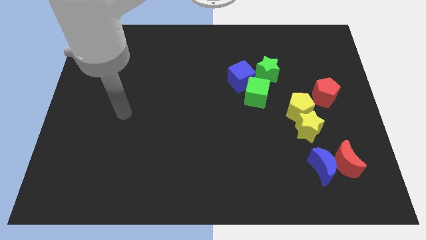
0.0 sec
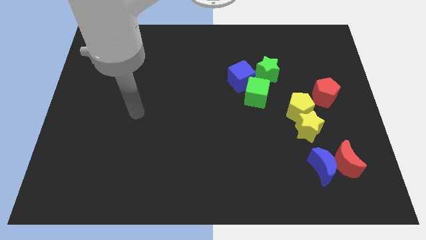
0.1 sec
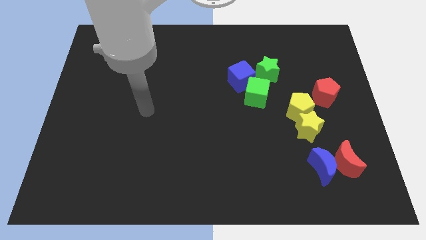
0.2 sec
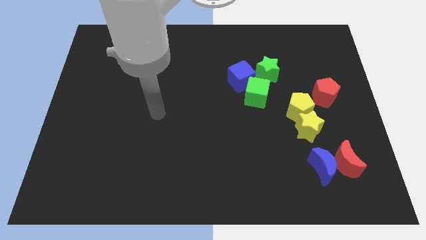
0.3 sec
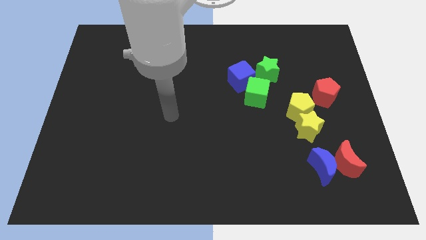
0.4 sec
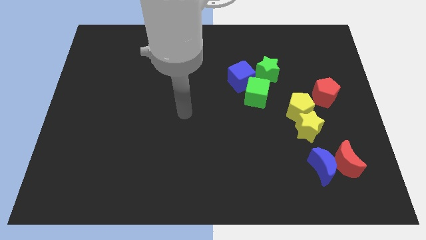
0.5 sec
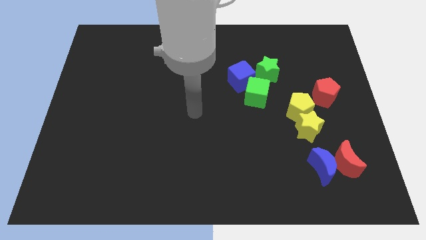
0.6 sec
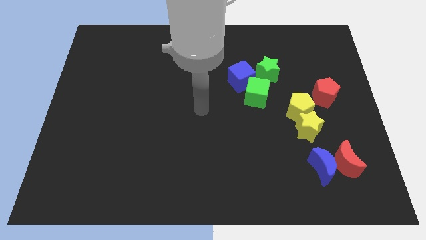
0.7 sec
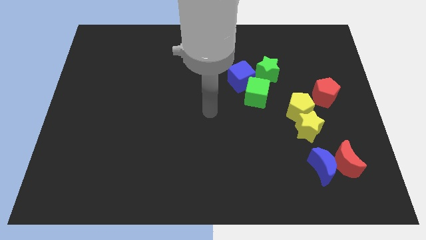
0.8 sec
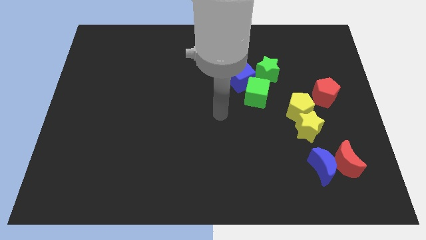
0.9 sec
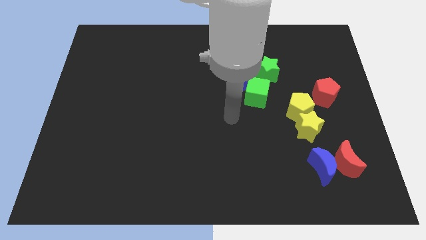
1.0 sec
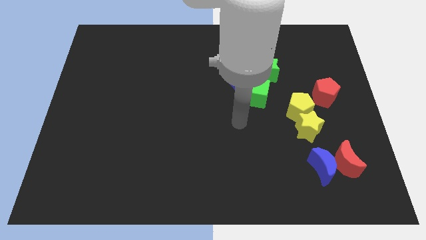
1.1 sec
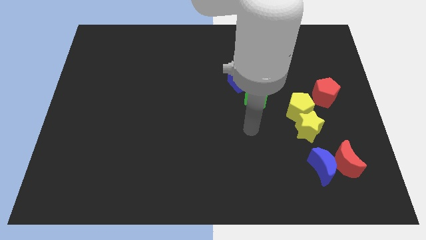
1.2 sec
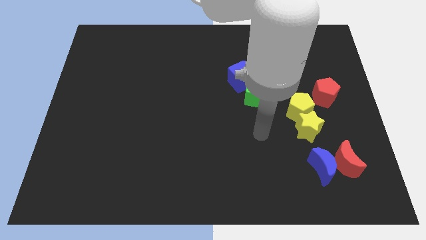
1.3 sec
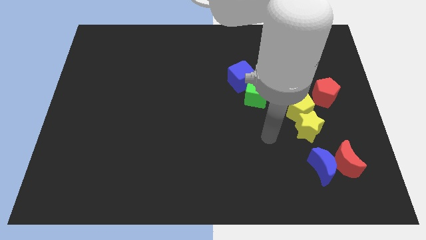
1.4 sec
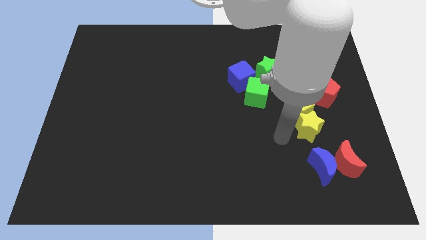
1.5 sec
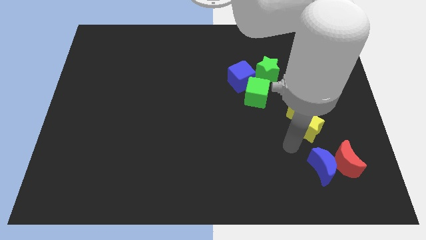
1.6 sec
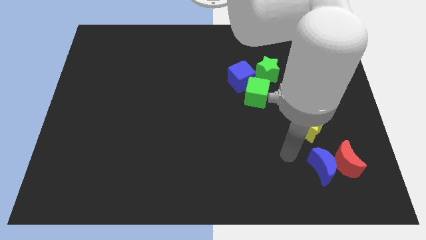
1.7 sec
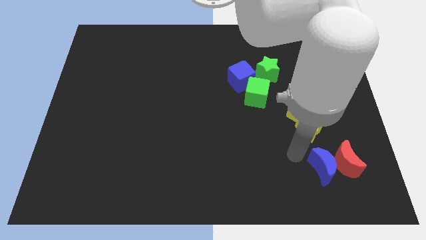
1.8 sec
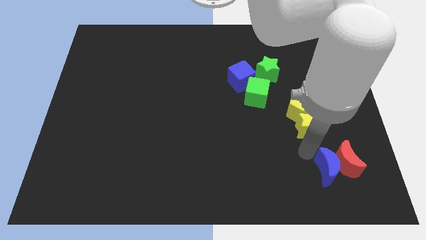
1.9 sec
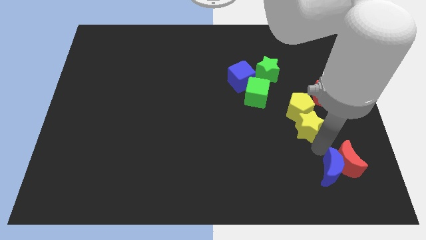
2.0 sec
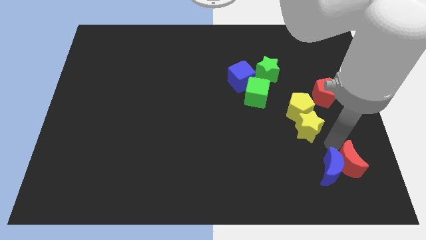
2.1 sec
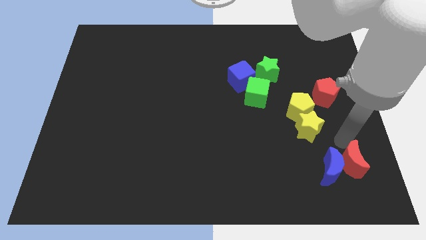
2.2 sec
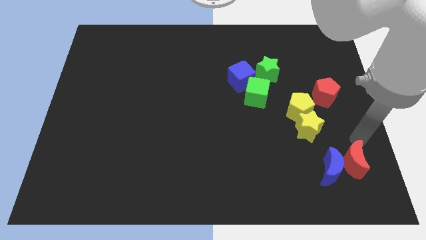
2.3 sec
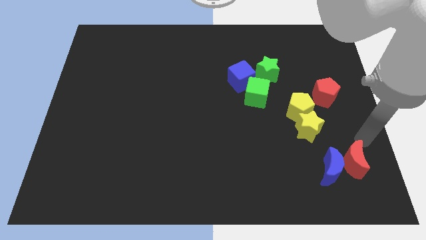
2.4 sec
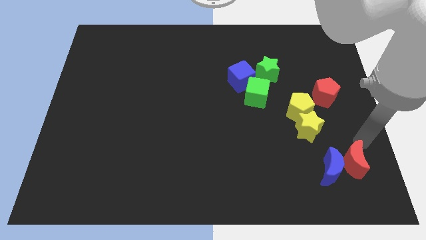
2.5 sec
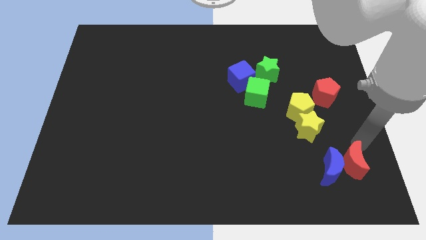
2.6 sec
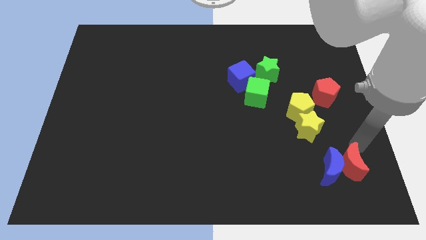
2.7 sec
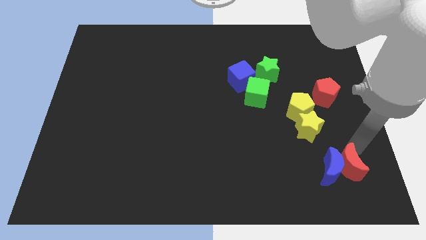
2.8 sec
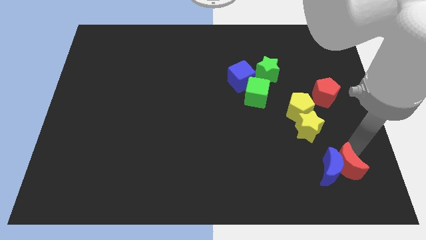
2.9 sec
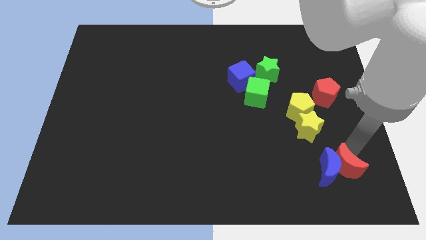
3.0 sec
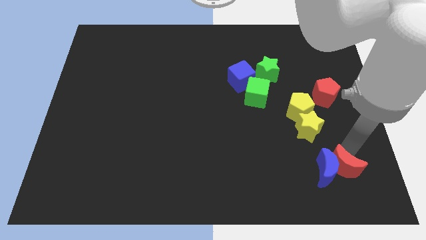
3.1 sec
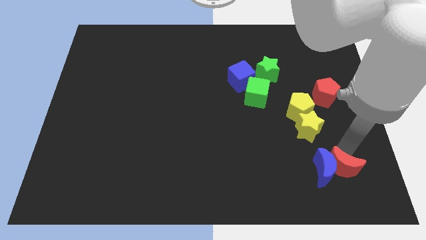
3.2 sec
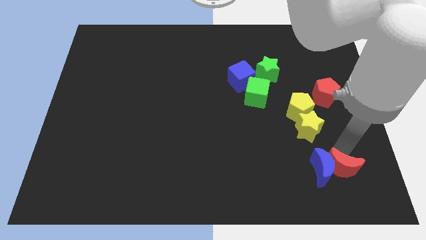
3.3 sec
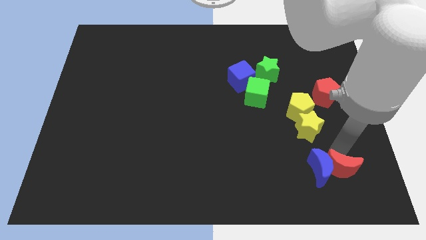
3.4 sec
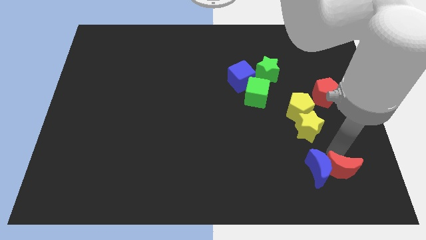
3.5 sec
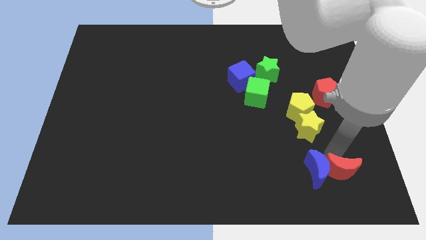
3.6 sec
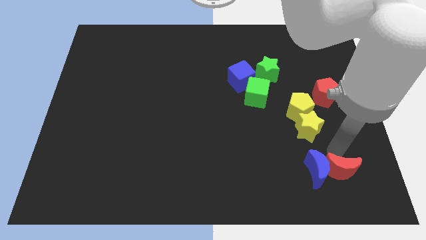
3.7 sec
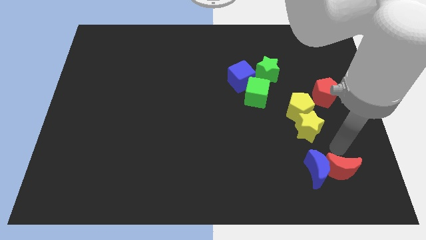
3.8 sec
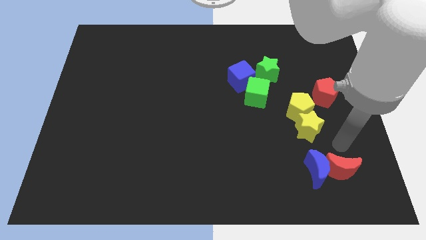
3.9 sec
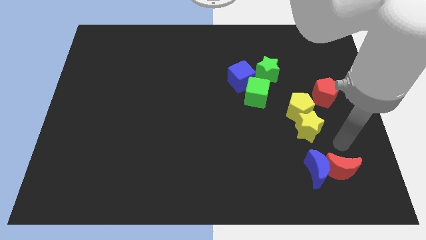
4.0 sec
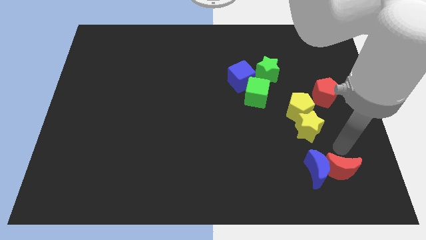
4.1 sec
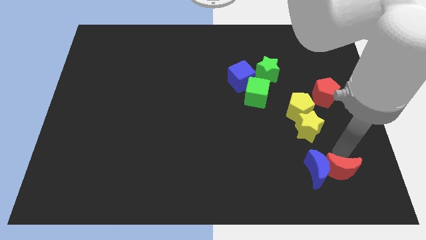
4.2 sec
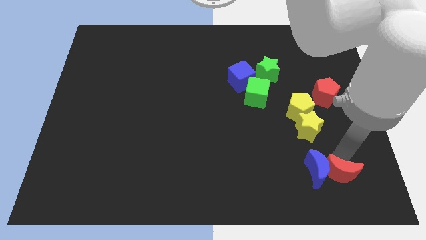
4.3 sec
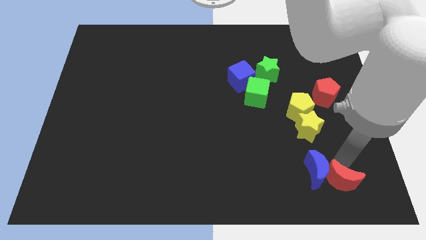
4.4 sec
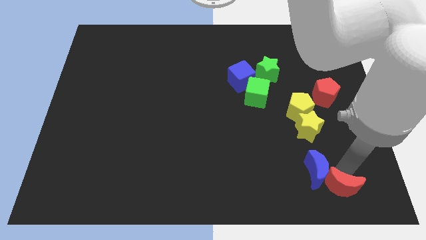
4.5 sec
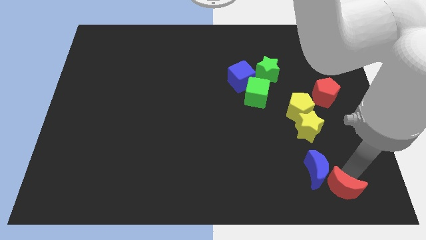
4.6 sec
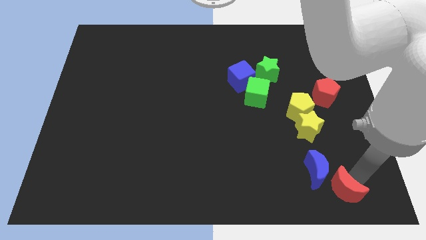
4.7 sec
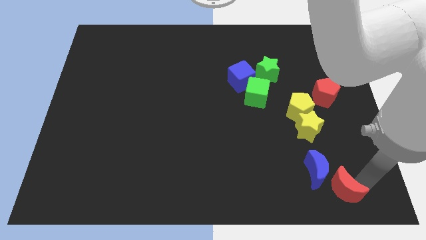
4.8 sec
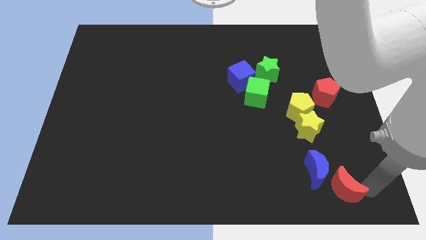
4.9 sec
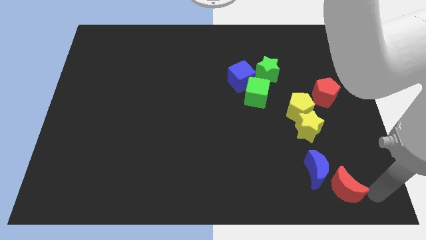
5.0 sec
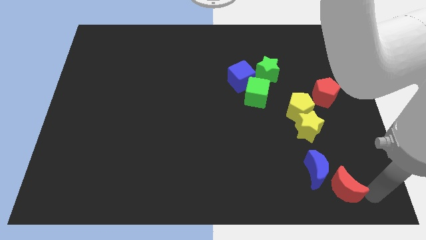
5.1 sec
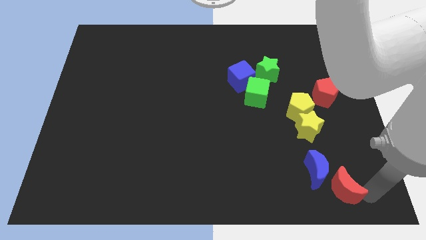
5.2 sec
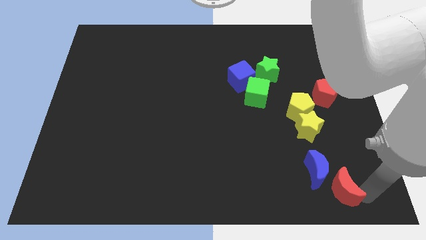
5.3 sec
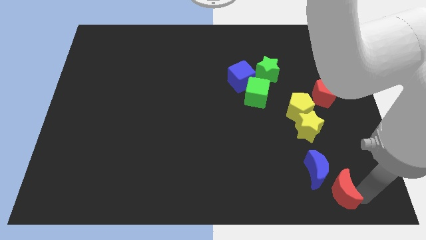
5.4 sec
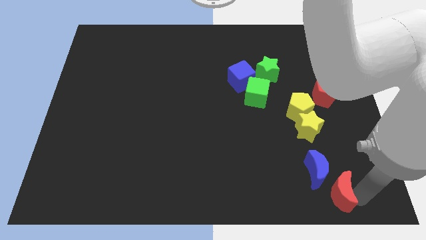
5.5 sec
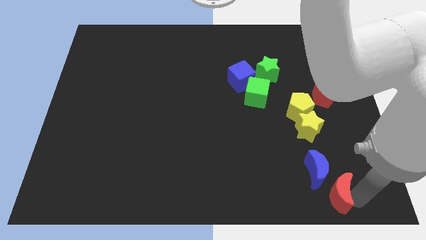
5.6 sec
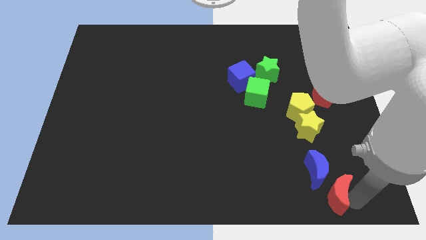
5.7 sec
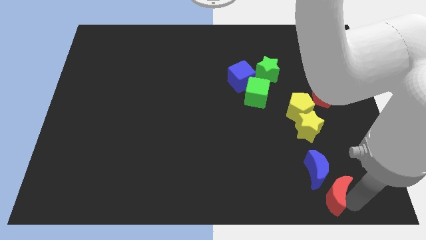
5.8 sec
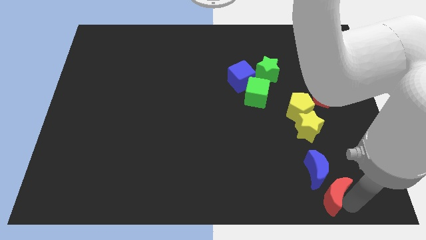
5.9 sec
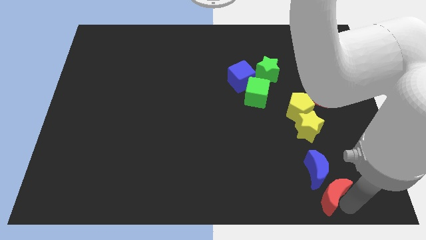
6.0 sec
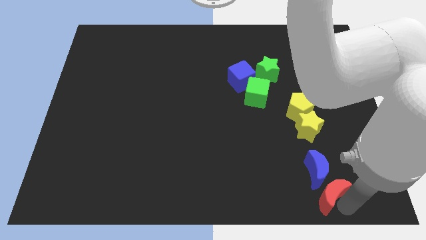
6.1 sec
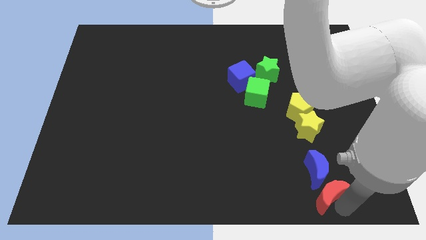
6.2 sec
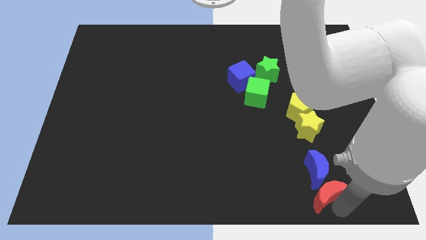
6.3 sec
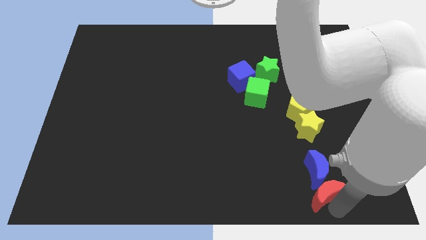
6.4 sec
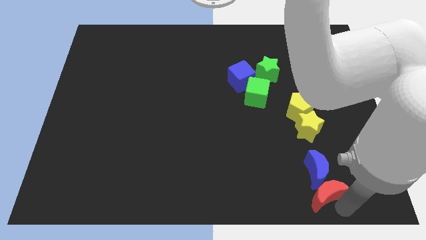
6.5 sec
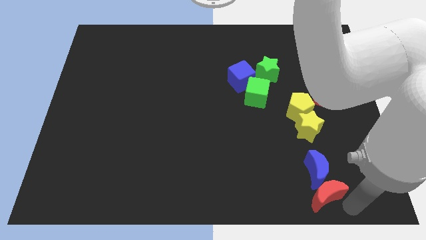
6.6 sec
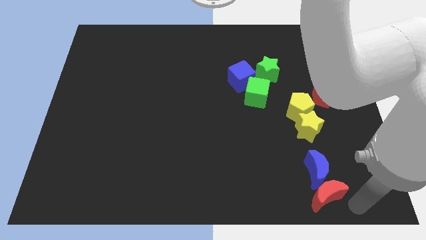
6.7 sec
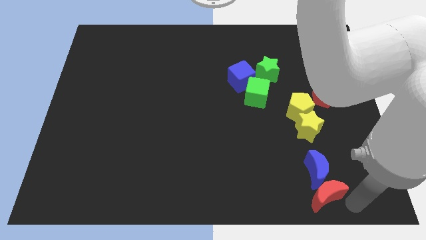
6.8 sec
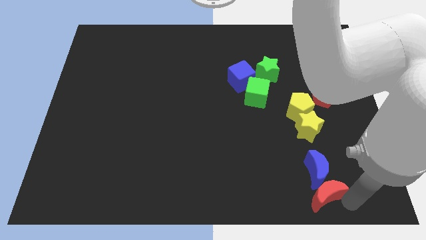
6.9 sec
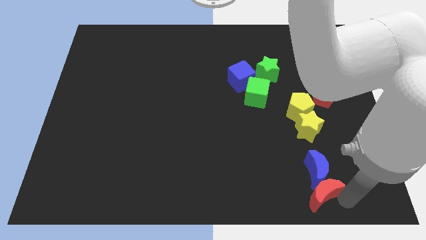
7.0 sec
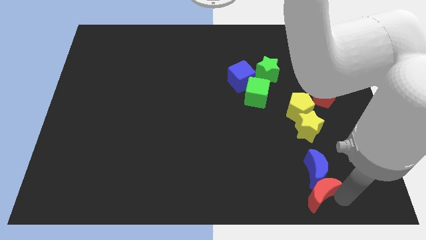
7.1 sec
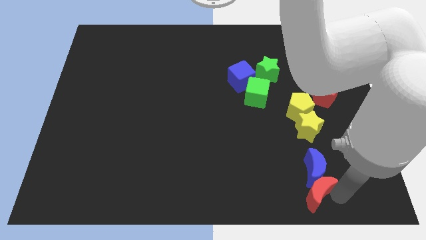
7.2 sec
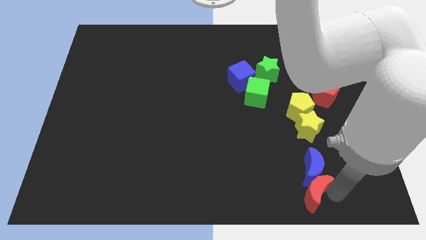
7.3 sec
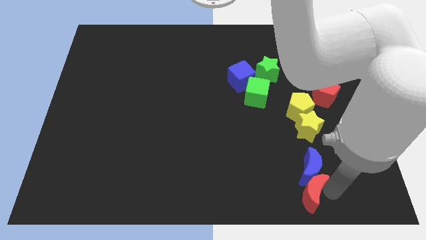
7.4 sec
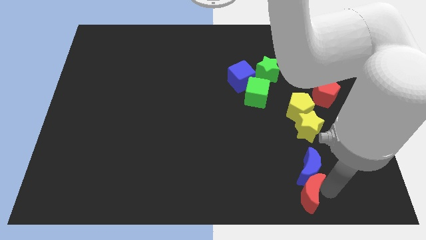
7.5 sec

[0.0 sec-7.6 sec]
slide the red moon left a bit

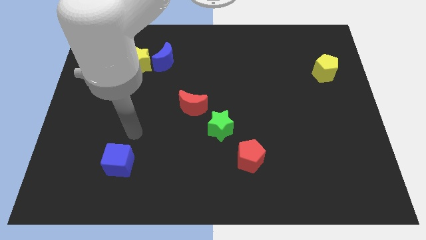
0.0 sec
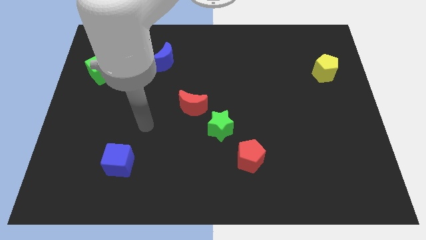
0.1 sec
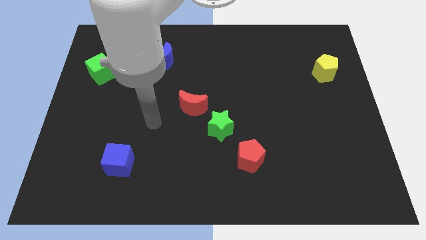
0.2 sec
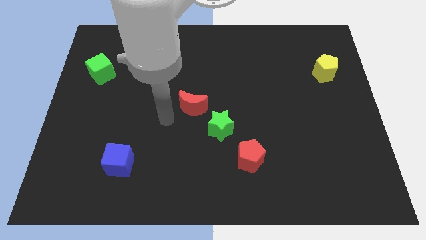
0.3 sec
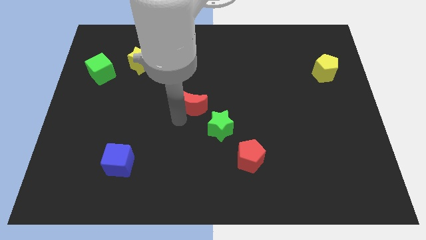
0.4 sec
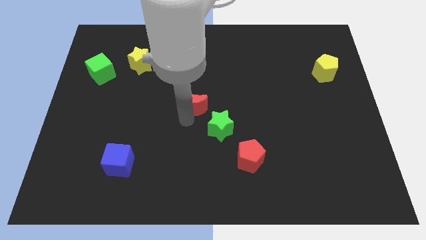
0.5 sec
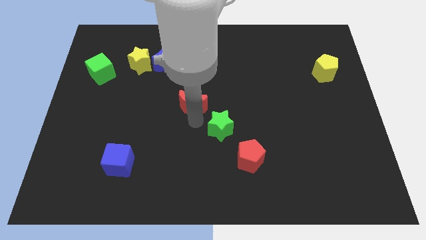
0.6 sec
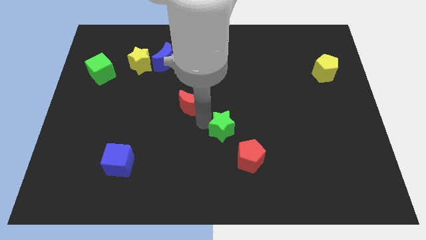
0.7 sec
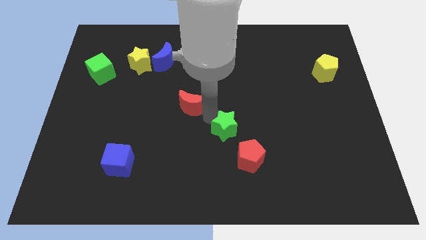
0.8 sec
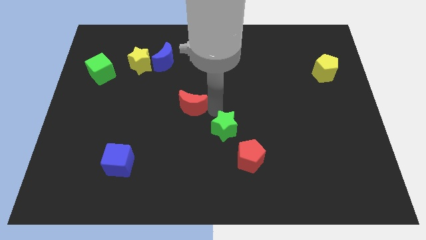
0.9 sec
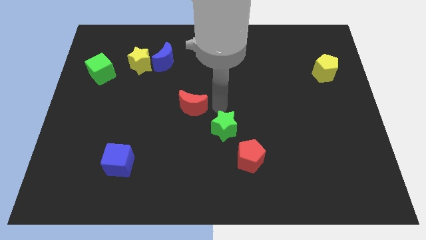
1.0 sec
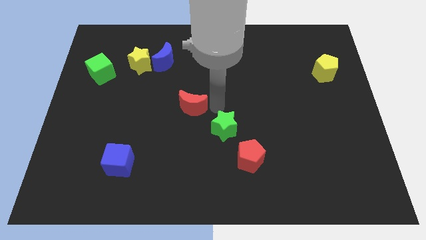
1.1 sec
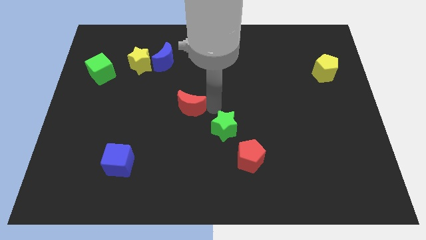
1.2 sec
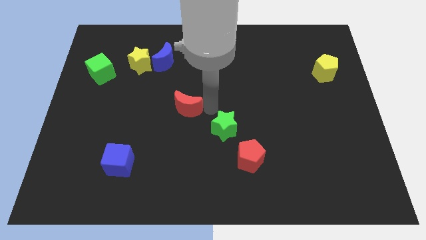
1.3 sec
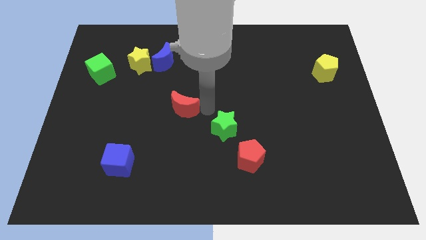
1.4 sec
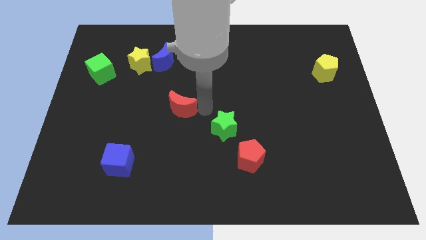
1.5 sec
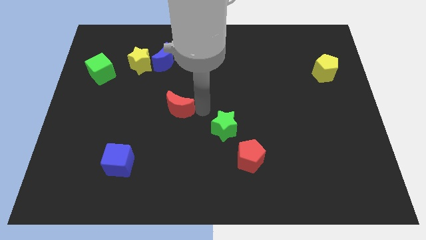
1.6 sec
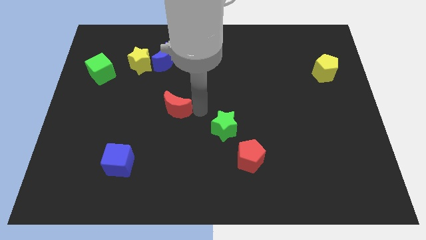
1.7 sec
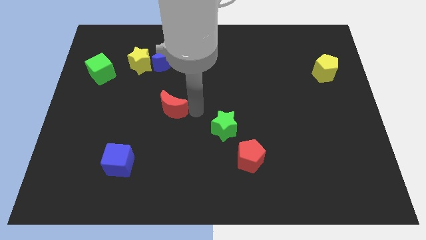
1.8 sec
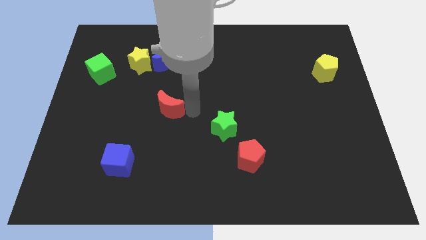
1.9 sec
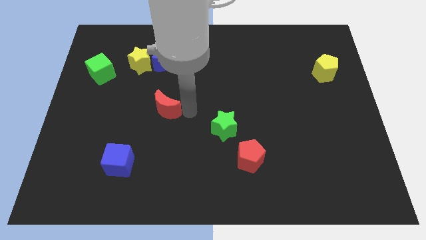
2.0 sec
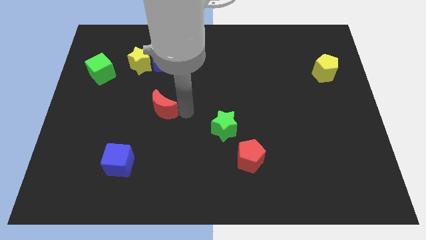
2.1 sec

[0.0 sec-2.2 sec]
slightly slide the red moon to the left
